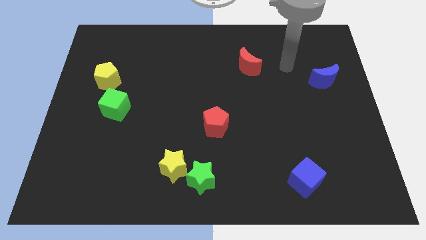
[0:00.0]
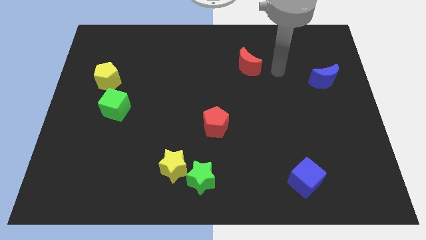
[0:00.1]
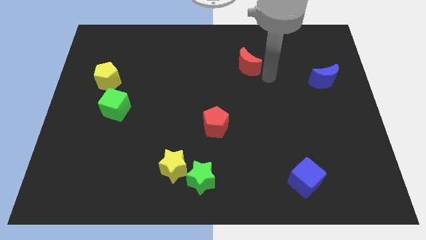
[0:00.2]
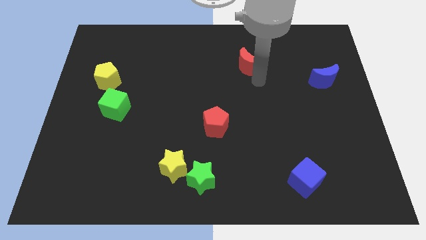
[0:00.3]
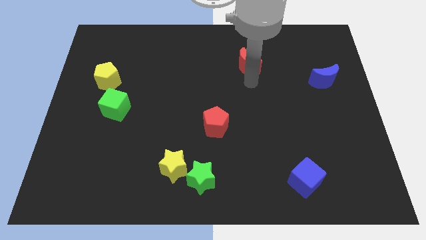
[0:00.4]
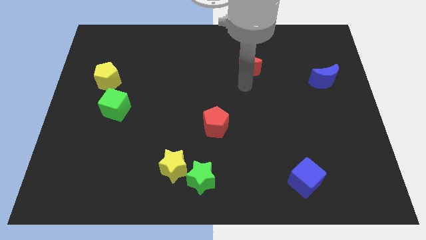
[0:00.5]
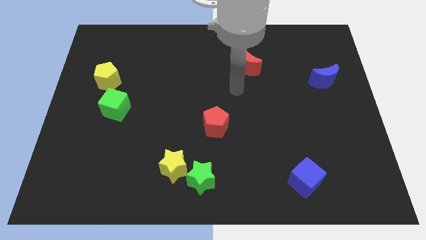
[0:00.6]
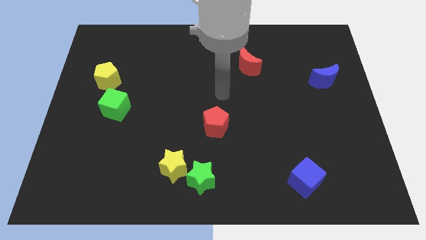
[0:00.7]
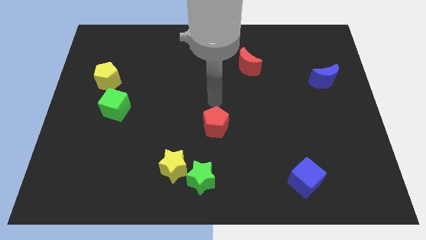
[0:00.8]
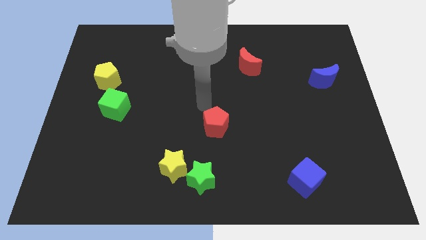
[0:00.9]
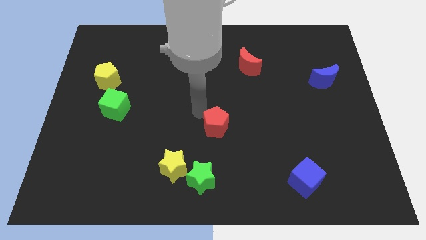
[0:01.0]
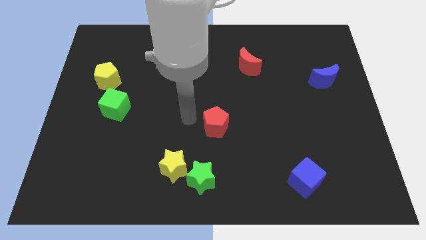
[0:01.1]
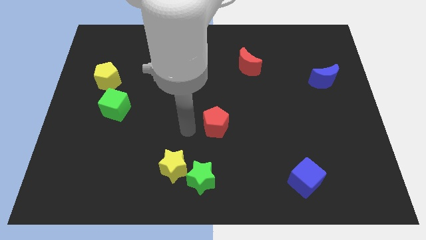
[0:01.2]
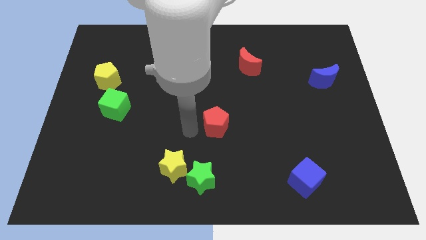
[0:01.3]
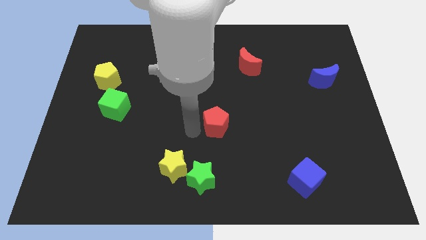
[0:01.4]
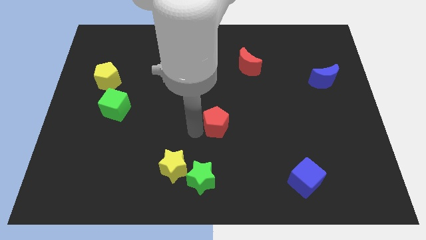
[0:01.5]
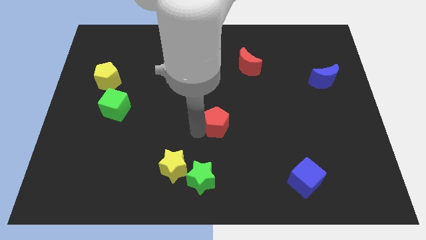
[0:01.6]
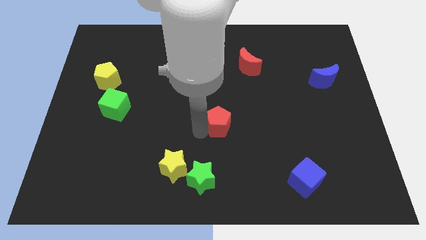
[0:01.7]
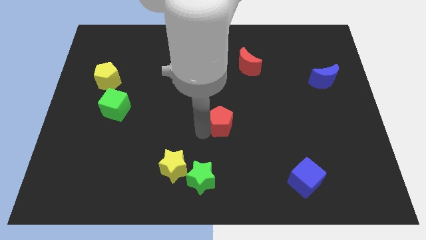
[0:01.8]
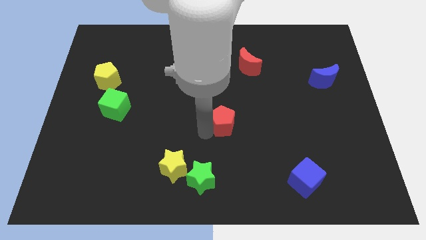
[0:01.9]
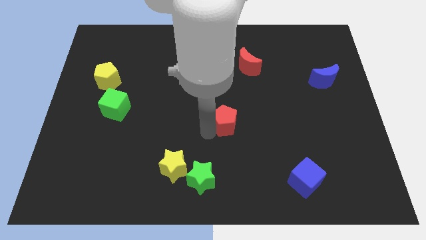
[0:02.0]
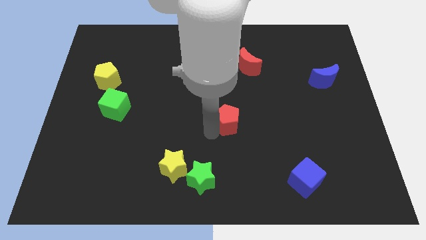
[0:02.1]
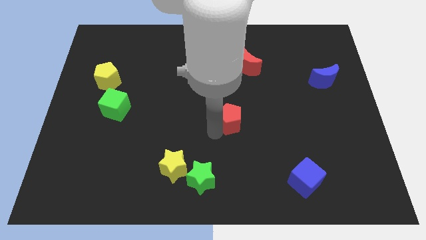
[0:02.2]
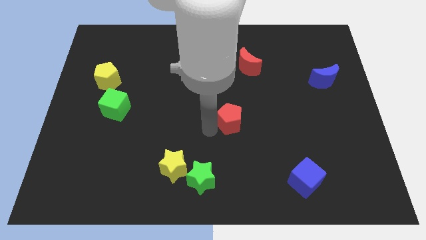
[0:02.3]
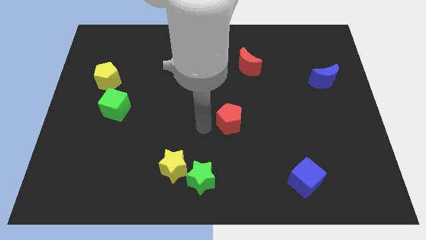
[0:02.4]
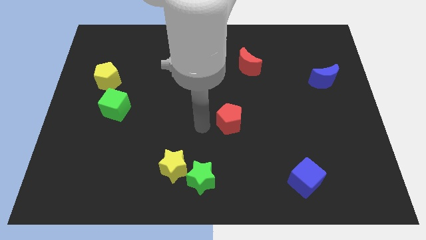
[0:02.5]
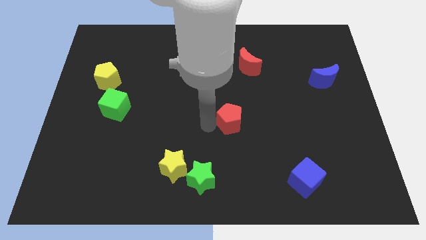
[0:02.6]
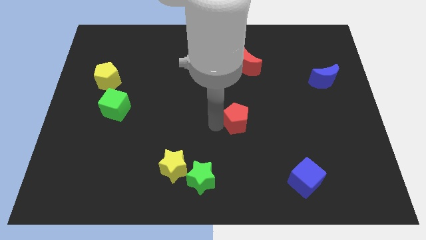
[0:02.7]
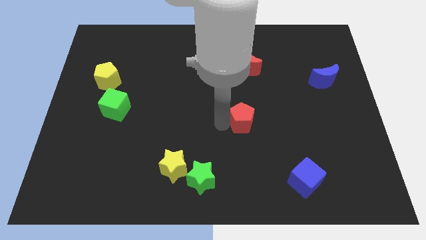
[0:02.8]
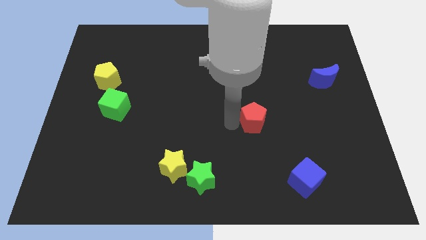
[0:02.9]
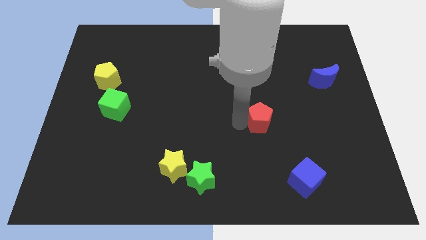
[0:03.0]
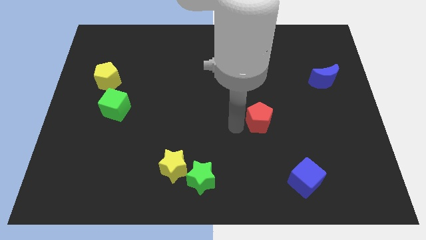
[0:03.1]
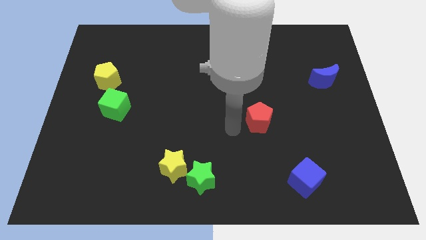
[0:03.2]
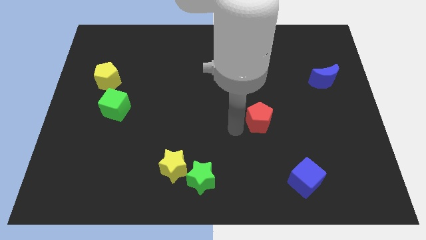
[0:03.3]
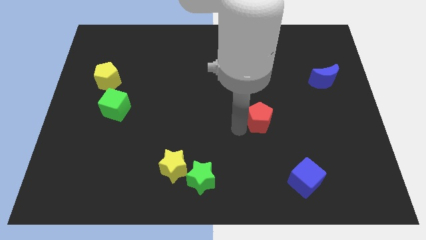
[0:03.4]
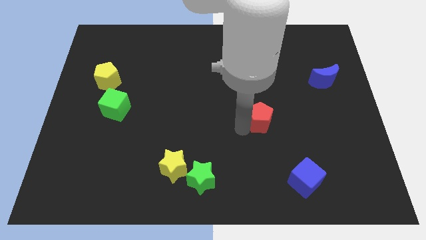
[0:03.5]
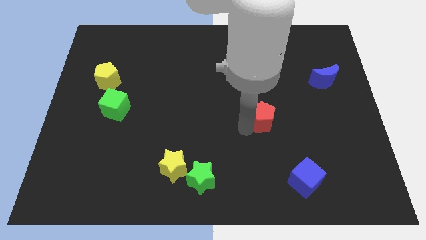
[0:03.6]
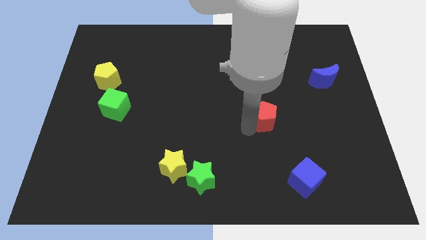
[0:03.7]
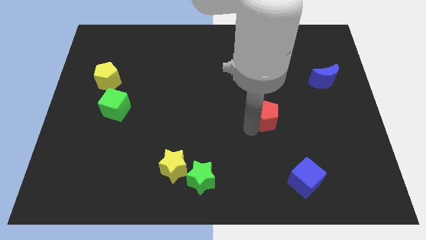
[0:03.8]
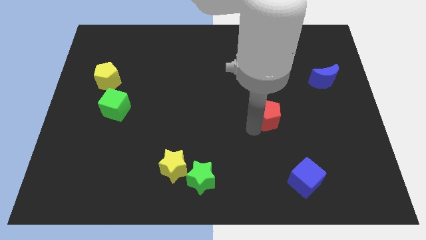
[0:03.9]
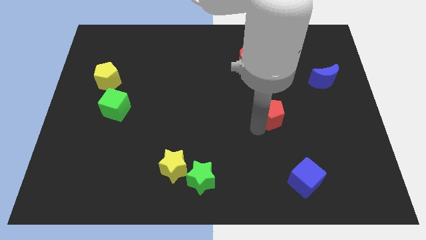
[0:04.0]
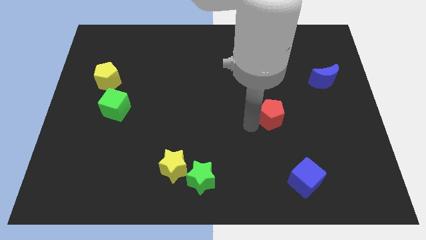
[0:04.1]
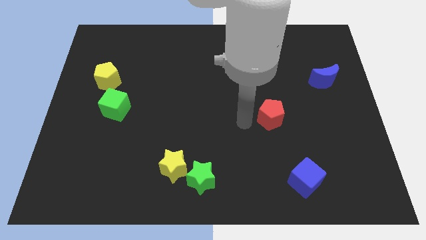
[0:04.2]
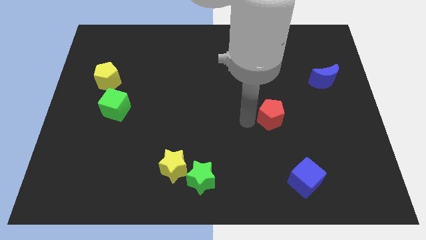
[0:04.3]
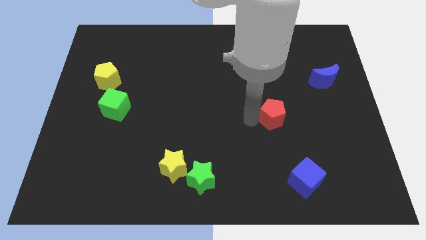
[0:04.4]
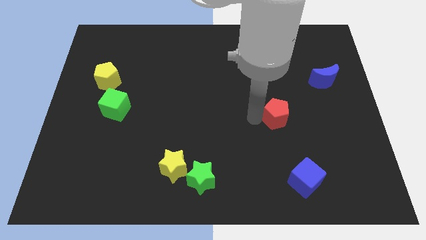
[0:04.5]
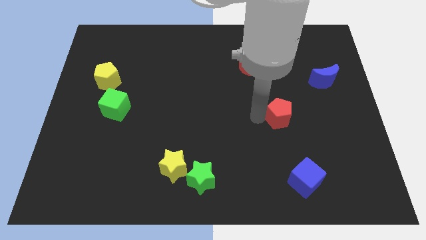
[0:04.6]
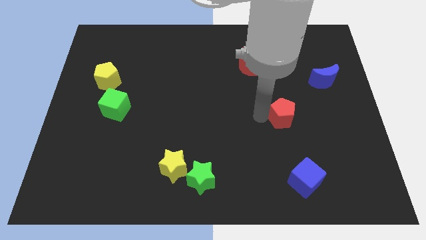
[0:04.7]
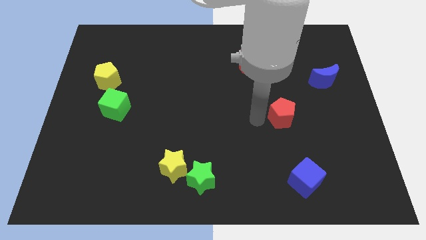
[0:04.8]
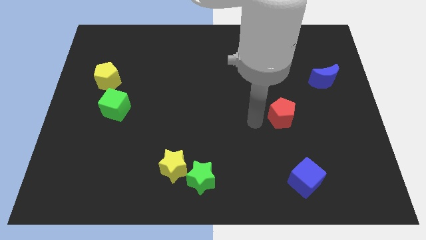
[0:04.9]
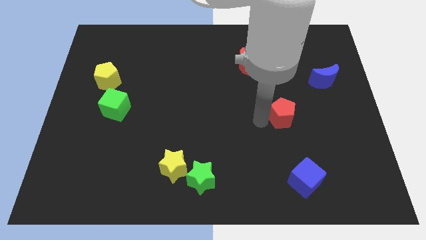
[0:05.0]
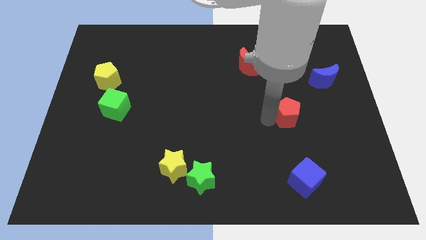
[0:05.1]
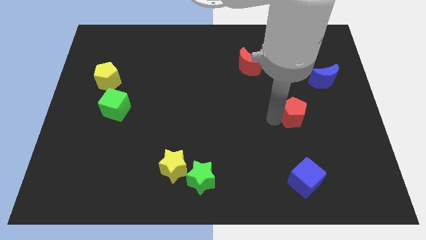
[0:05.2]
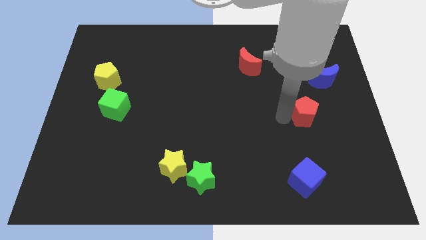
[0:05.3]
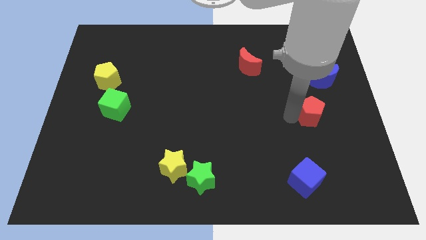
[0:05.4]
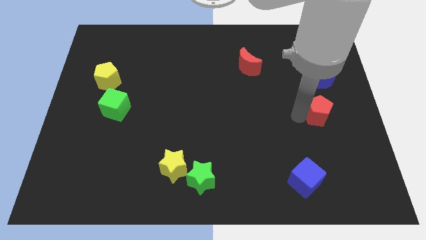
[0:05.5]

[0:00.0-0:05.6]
move the red pentagon to the bottom of the blue moon

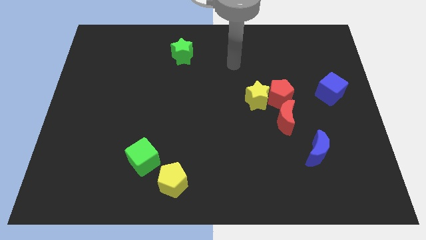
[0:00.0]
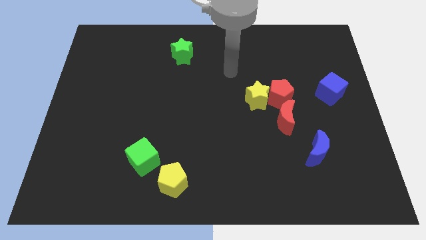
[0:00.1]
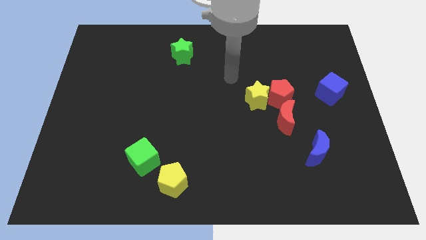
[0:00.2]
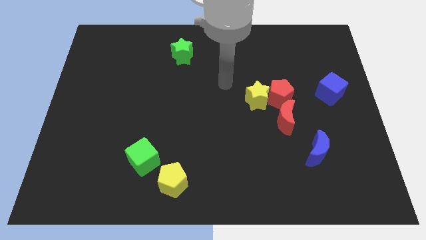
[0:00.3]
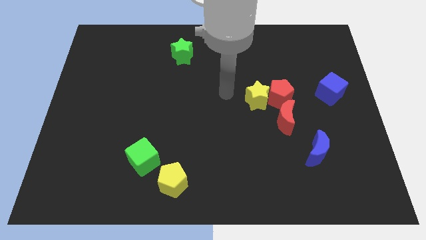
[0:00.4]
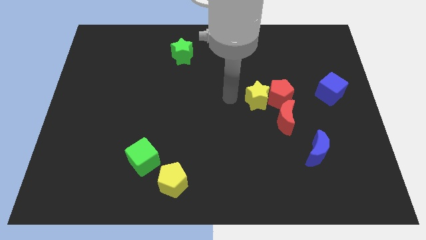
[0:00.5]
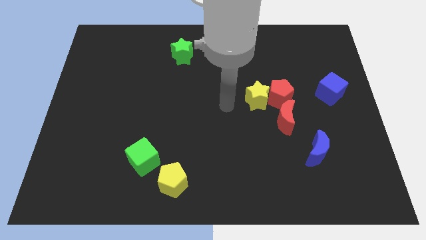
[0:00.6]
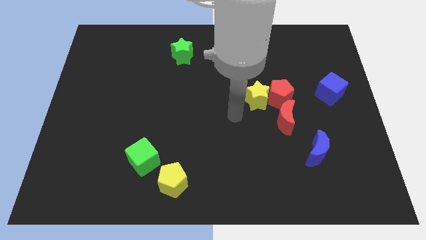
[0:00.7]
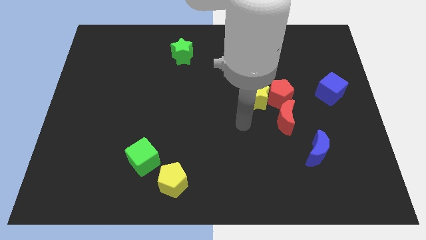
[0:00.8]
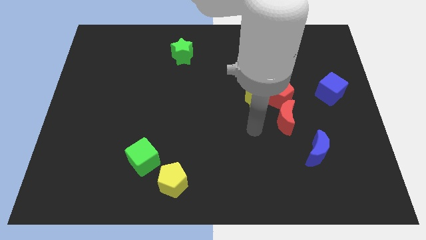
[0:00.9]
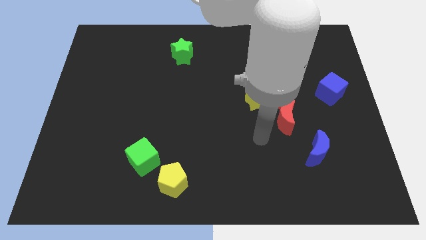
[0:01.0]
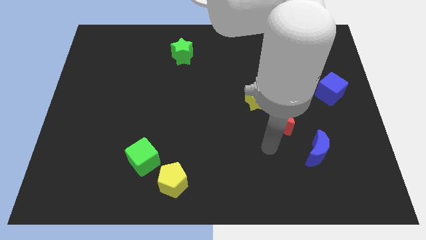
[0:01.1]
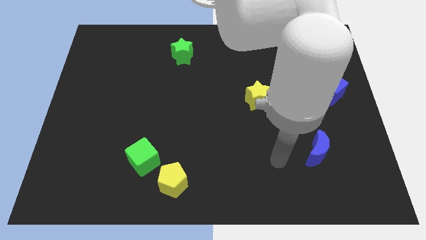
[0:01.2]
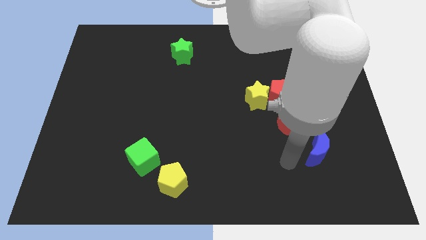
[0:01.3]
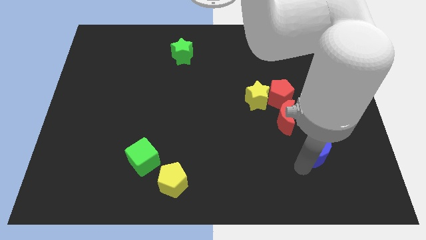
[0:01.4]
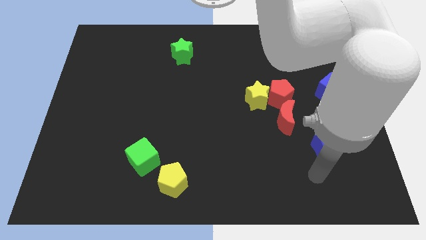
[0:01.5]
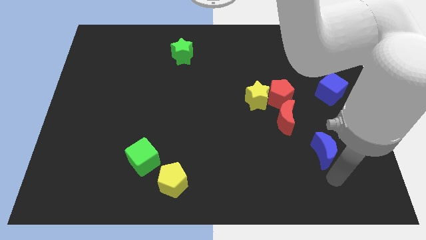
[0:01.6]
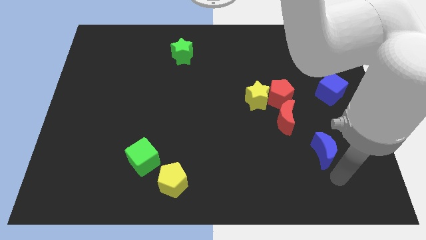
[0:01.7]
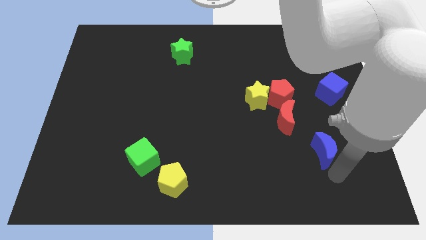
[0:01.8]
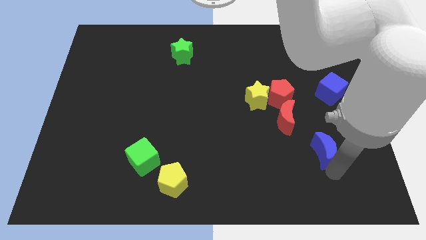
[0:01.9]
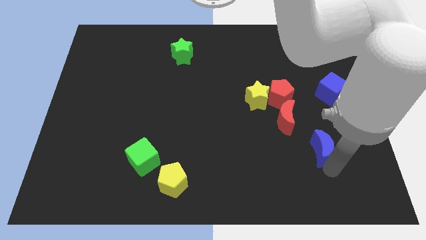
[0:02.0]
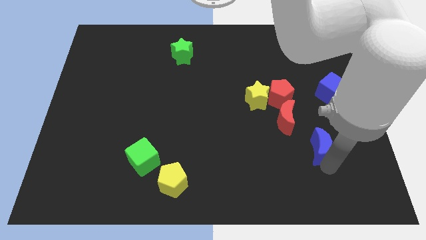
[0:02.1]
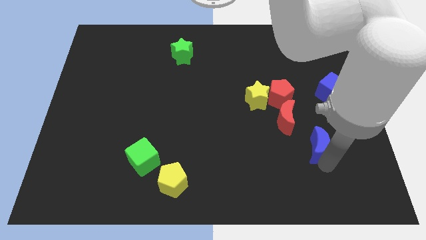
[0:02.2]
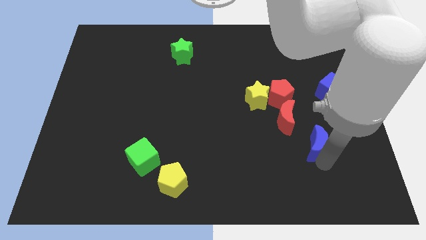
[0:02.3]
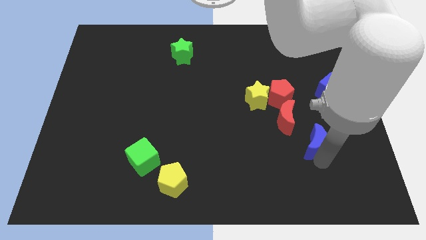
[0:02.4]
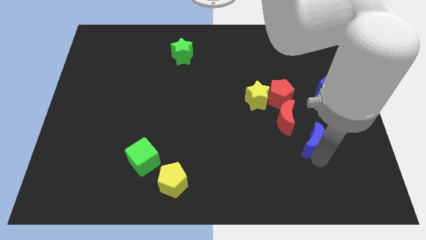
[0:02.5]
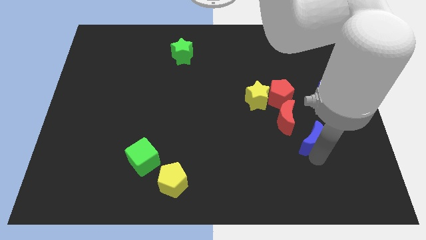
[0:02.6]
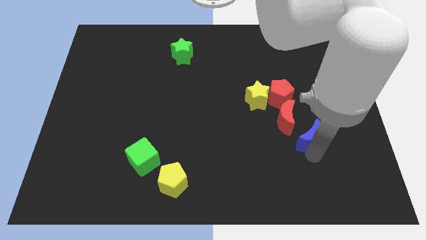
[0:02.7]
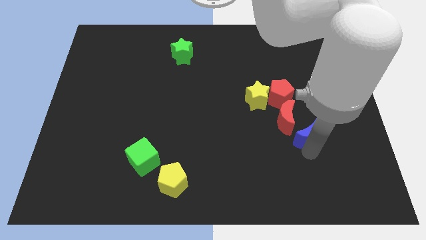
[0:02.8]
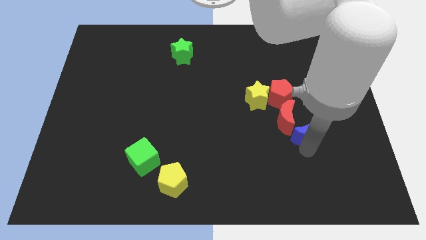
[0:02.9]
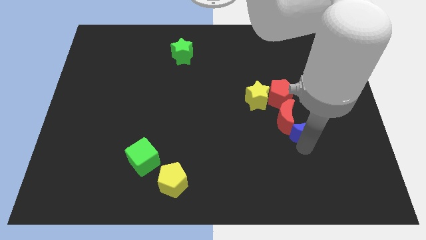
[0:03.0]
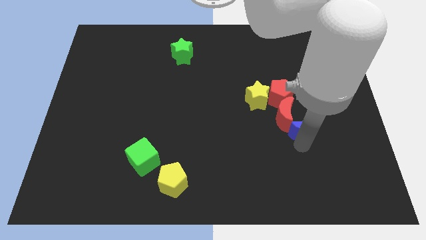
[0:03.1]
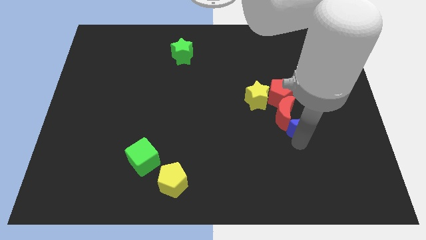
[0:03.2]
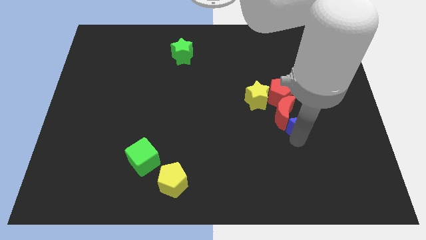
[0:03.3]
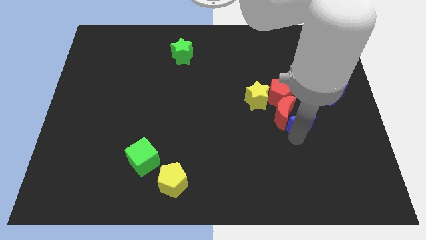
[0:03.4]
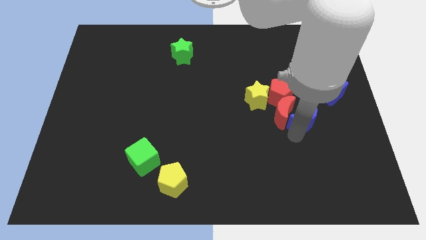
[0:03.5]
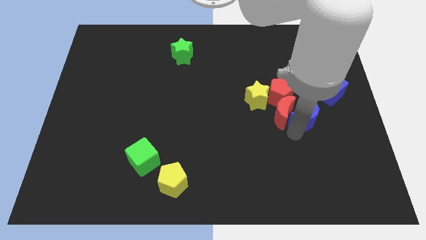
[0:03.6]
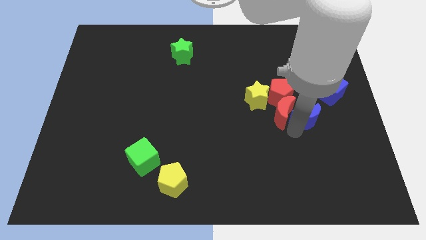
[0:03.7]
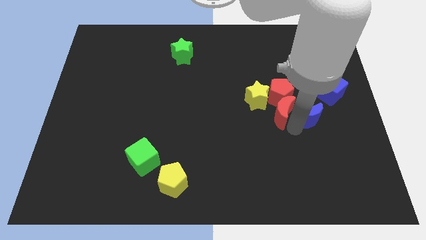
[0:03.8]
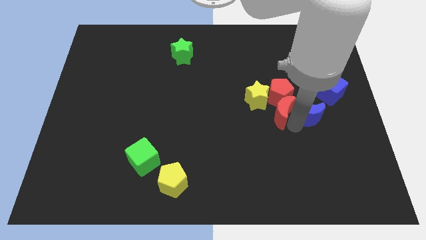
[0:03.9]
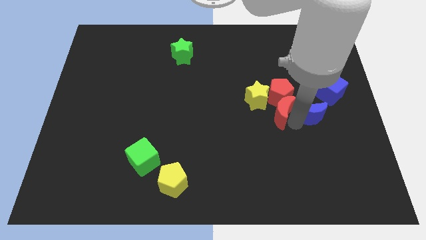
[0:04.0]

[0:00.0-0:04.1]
push the blue moon to the right of the yellow star
